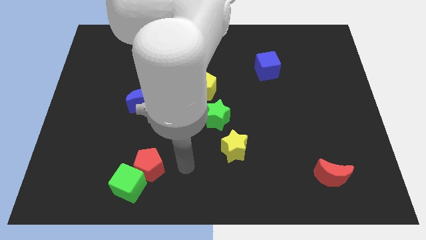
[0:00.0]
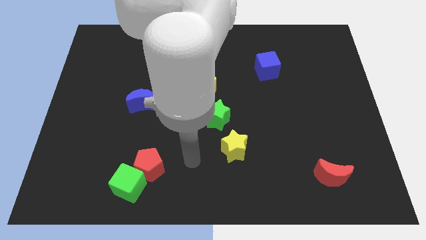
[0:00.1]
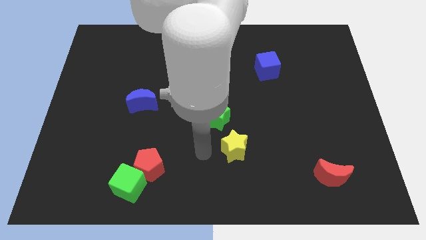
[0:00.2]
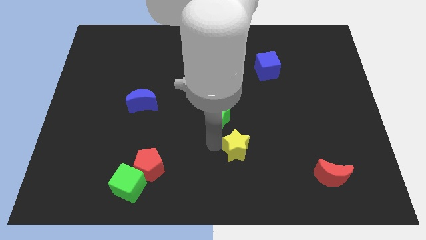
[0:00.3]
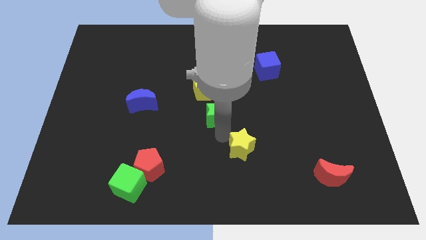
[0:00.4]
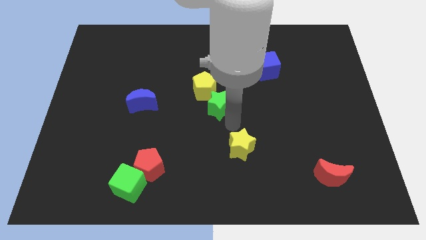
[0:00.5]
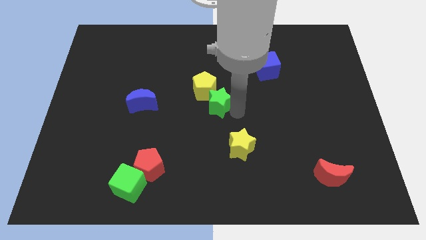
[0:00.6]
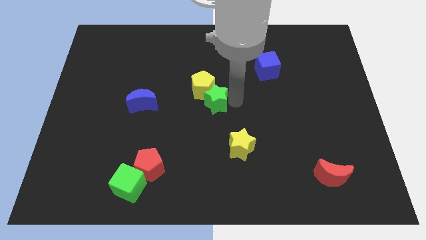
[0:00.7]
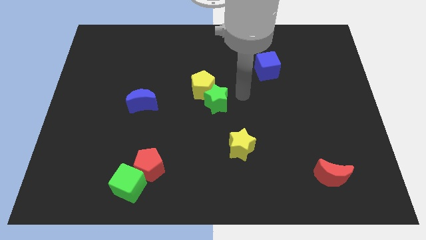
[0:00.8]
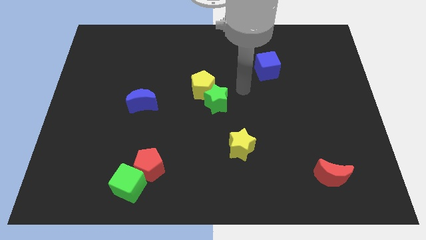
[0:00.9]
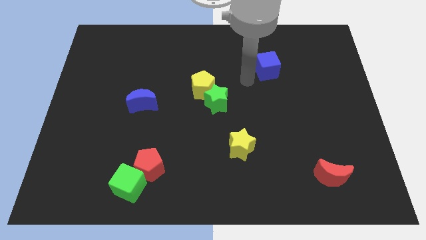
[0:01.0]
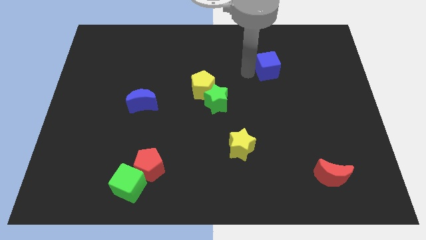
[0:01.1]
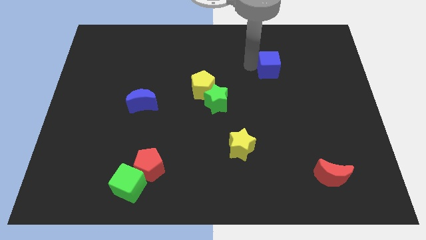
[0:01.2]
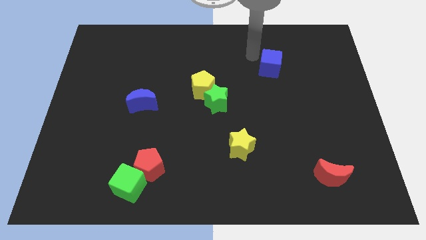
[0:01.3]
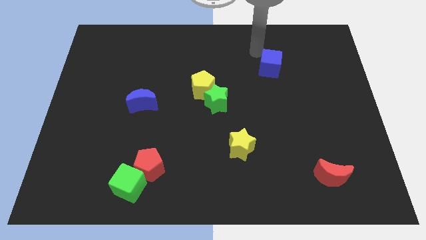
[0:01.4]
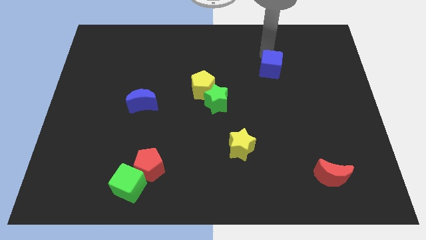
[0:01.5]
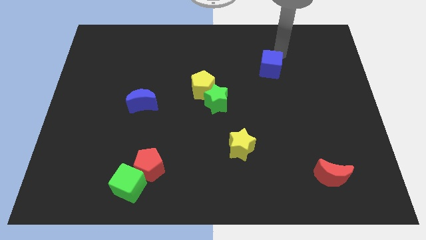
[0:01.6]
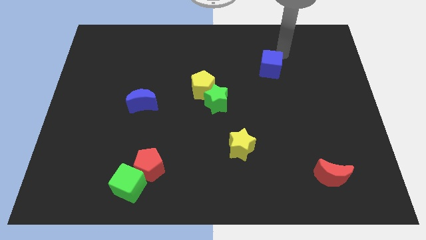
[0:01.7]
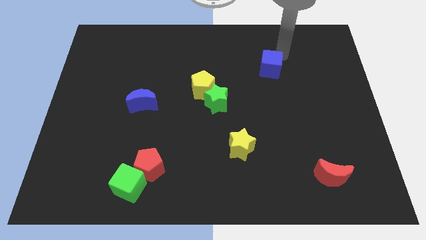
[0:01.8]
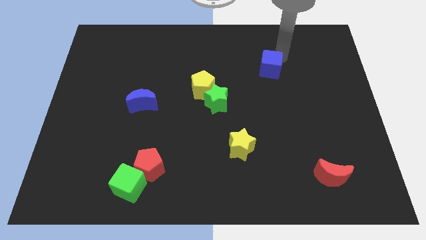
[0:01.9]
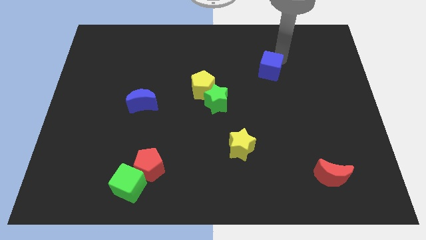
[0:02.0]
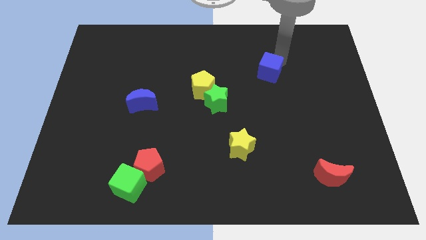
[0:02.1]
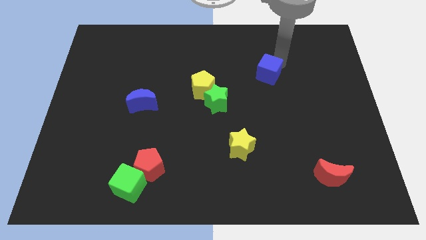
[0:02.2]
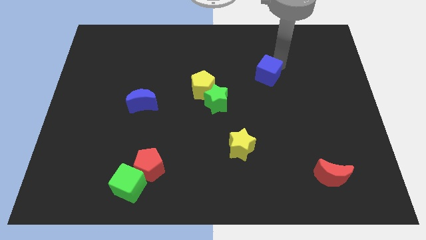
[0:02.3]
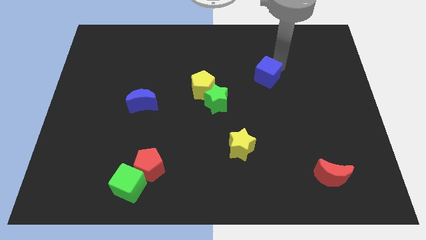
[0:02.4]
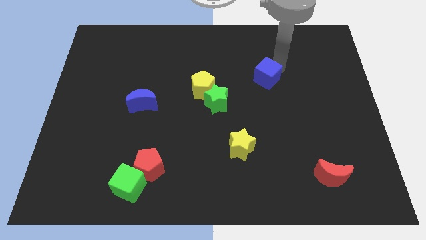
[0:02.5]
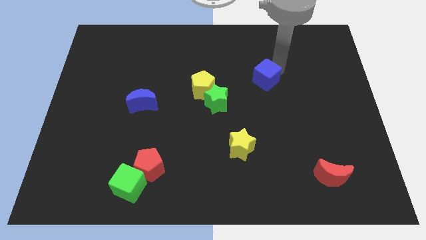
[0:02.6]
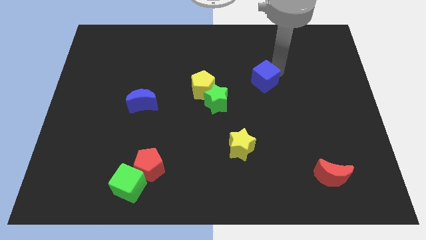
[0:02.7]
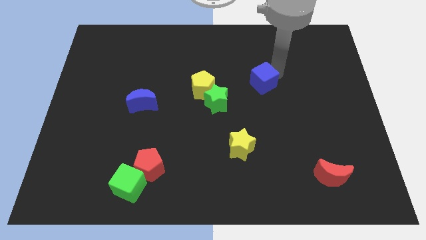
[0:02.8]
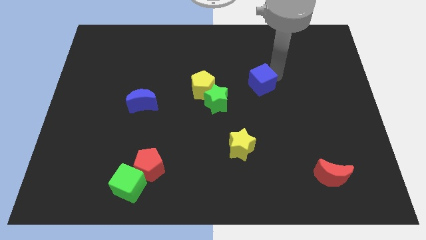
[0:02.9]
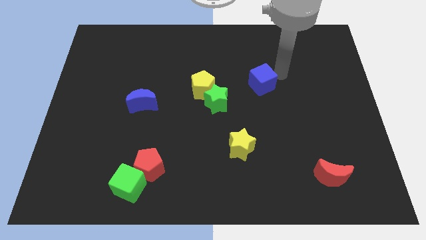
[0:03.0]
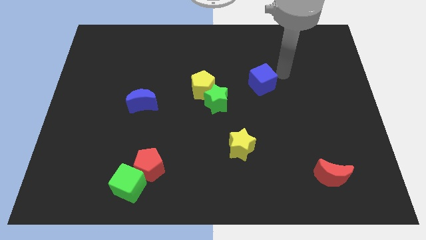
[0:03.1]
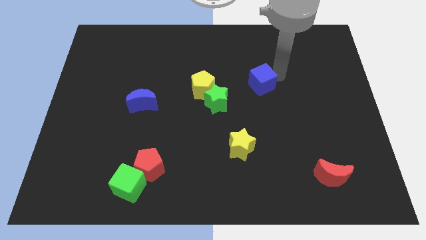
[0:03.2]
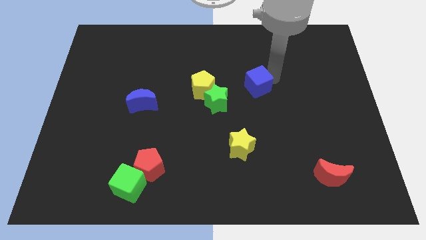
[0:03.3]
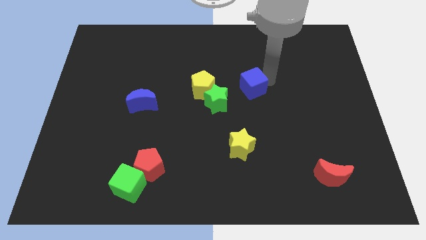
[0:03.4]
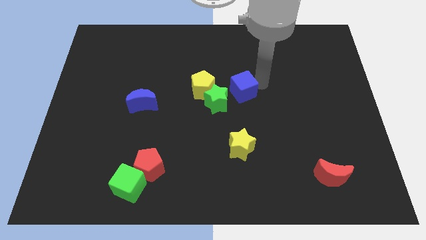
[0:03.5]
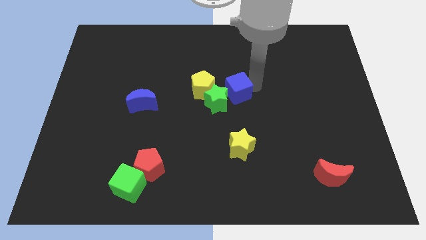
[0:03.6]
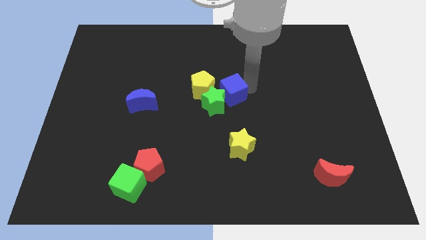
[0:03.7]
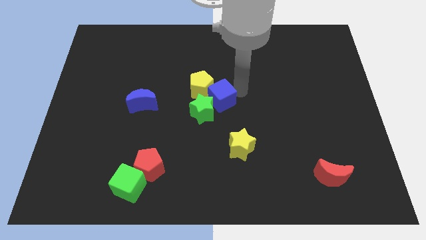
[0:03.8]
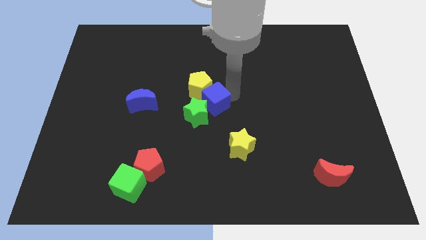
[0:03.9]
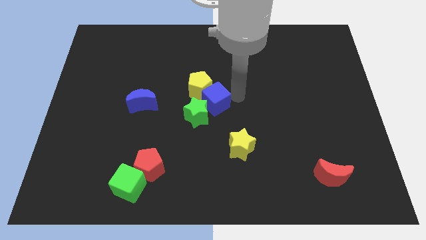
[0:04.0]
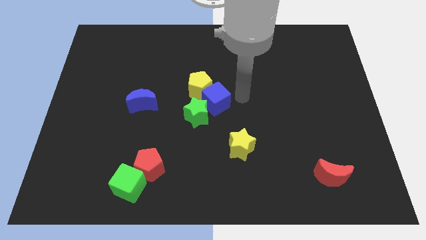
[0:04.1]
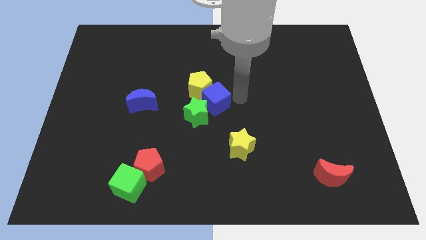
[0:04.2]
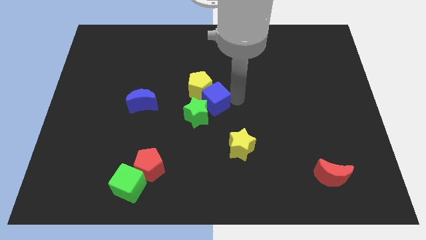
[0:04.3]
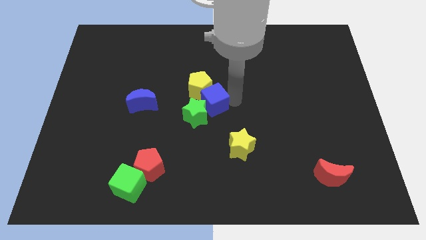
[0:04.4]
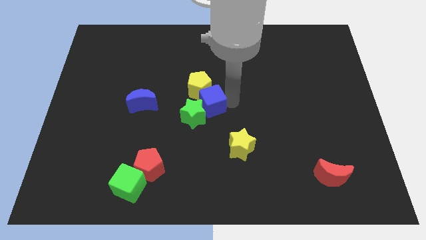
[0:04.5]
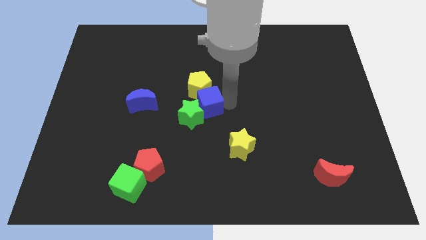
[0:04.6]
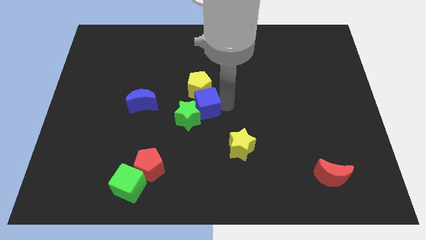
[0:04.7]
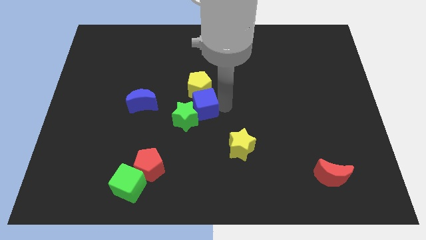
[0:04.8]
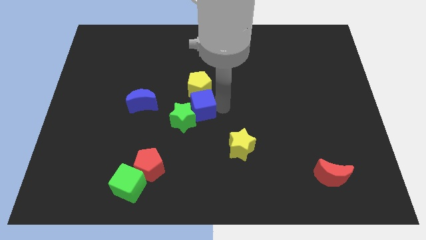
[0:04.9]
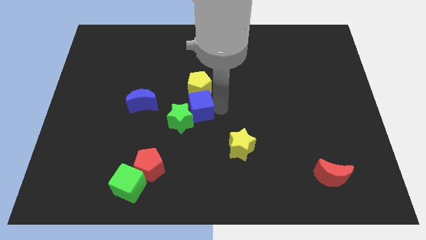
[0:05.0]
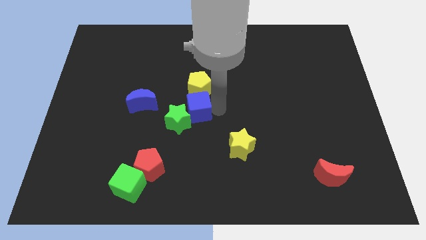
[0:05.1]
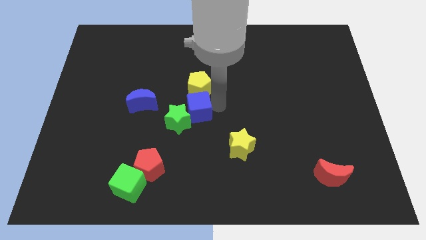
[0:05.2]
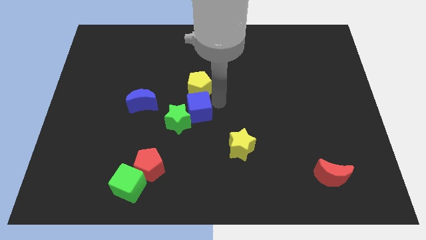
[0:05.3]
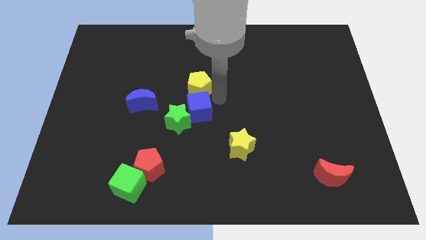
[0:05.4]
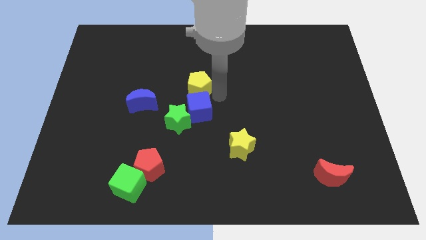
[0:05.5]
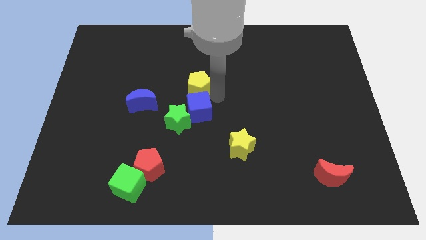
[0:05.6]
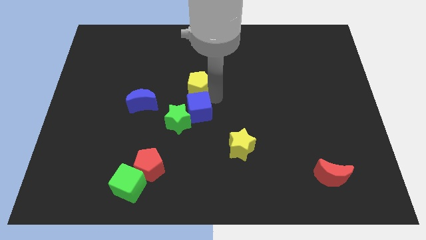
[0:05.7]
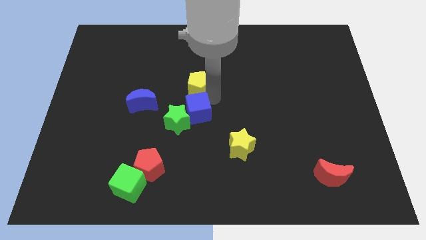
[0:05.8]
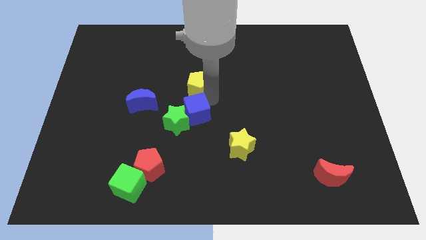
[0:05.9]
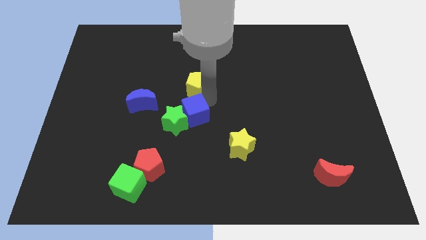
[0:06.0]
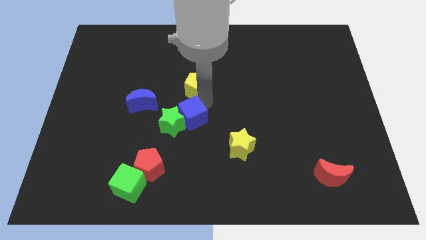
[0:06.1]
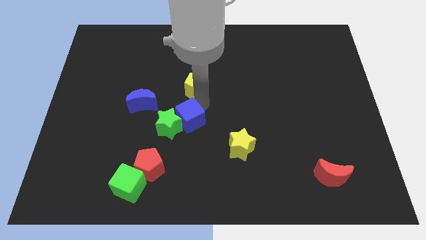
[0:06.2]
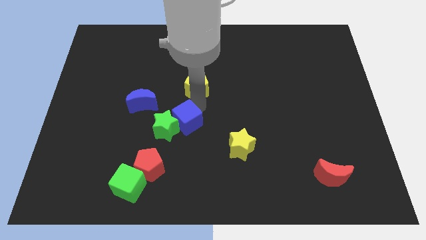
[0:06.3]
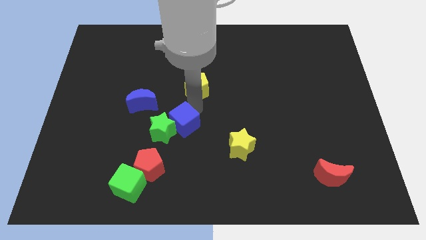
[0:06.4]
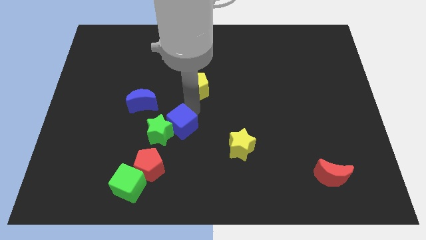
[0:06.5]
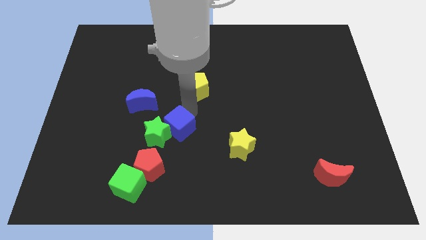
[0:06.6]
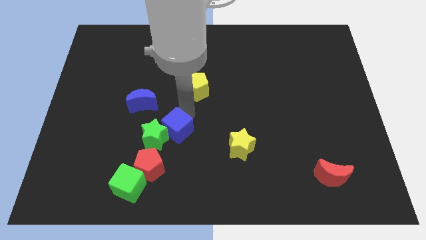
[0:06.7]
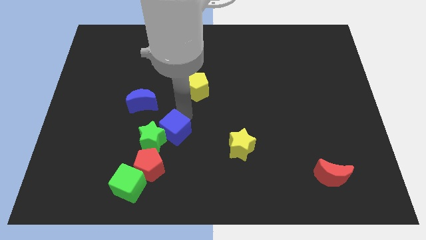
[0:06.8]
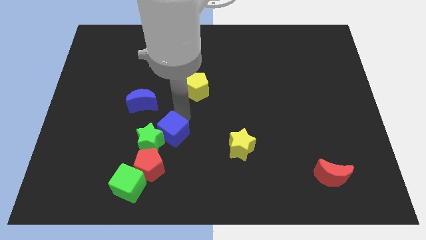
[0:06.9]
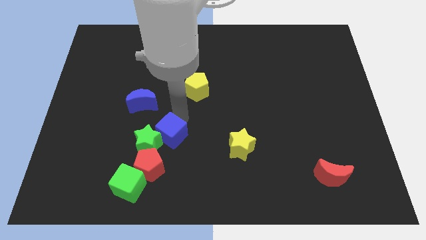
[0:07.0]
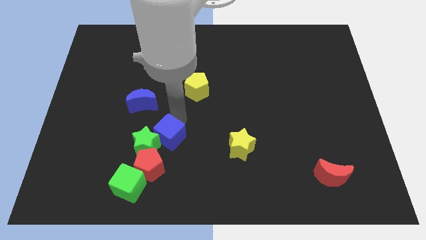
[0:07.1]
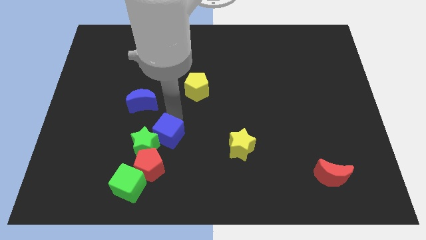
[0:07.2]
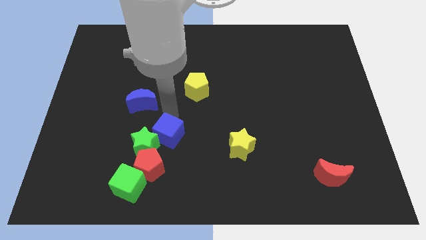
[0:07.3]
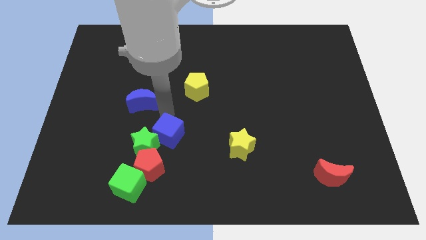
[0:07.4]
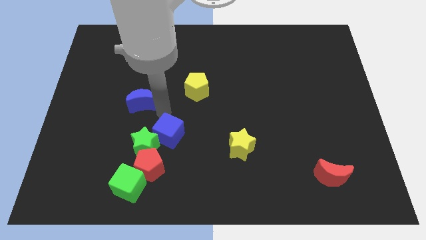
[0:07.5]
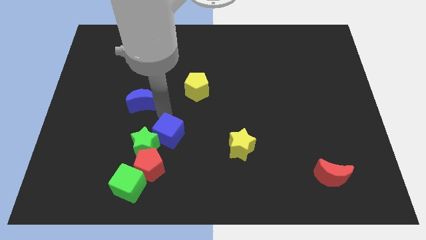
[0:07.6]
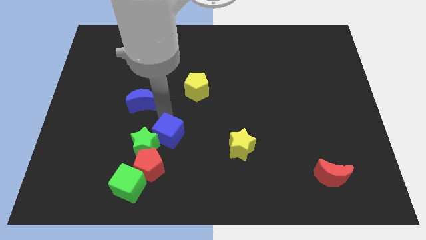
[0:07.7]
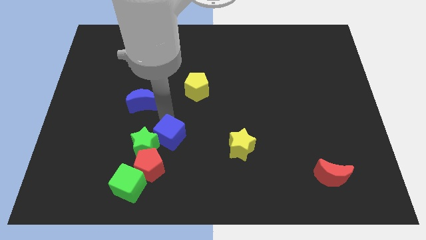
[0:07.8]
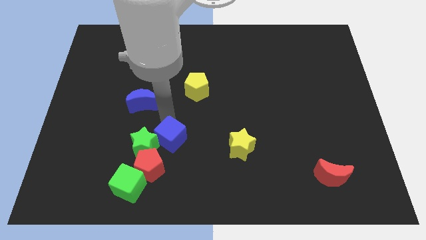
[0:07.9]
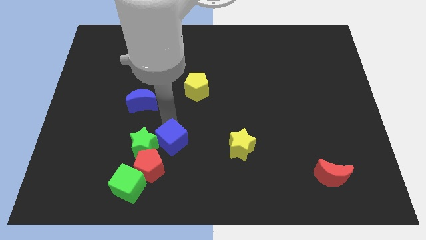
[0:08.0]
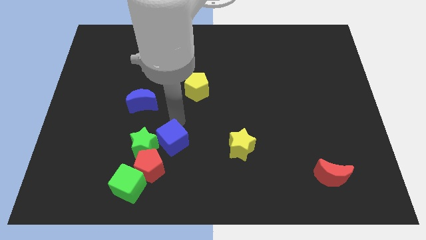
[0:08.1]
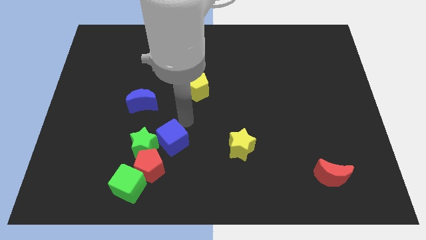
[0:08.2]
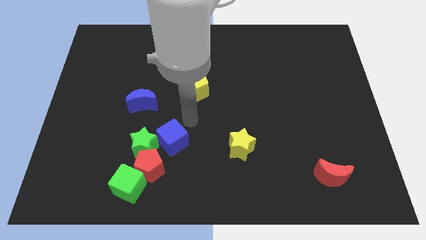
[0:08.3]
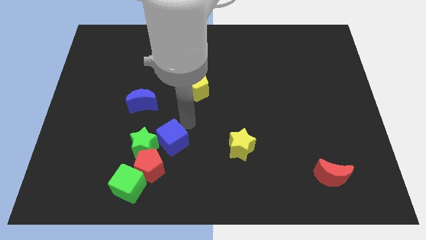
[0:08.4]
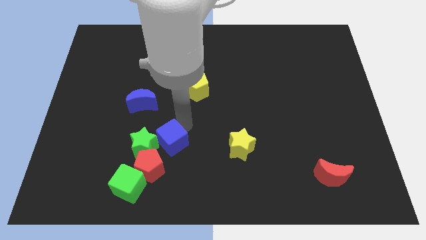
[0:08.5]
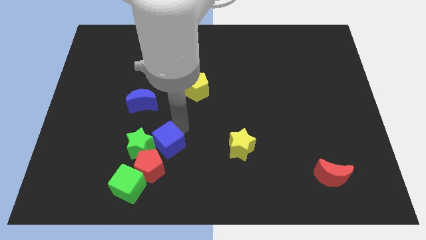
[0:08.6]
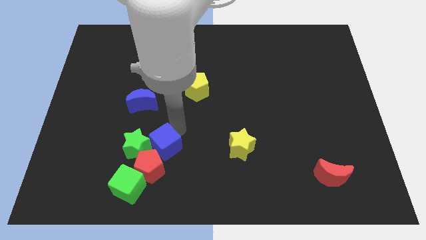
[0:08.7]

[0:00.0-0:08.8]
put the blue cube to the red pentagon
